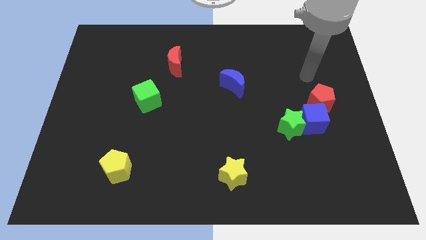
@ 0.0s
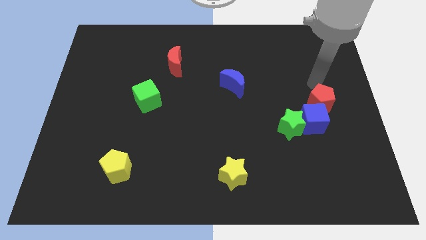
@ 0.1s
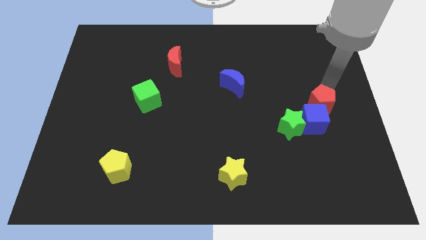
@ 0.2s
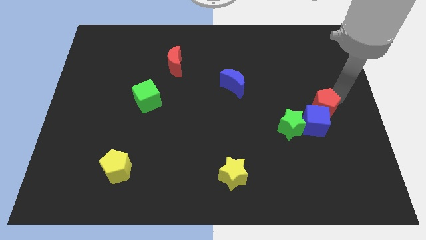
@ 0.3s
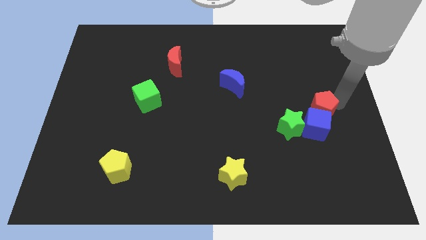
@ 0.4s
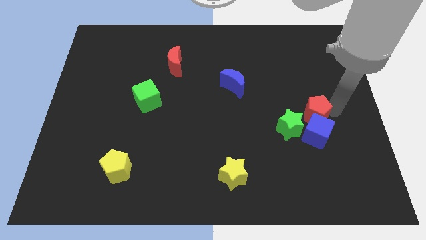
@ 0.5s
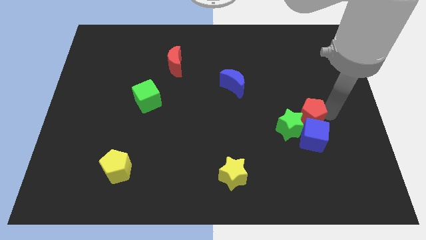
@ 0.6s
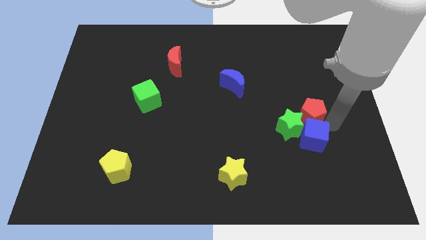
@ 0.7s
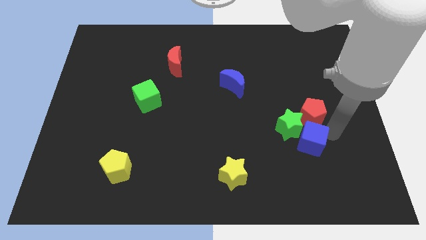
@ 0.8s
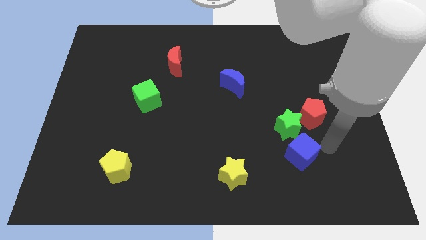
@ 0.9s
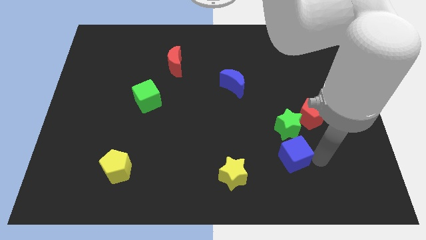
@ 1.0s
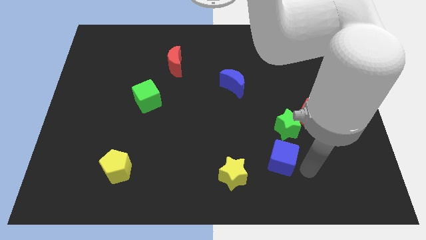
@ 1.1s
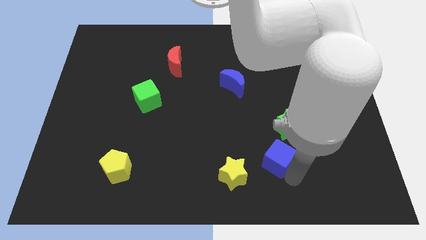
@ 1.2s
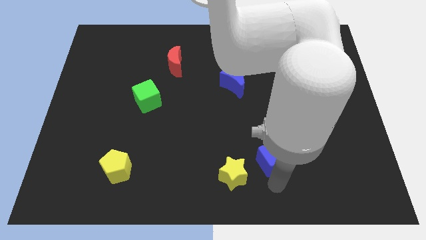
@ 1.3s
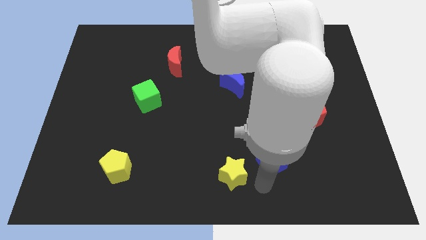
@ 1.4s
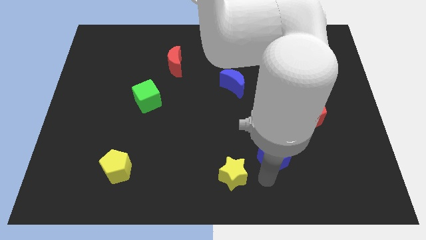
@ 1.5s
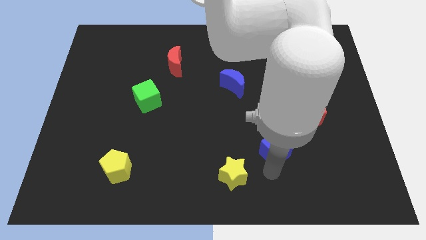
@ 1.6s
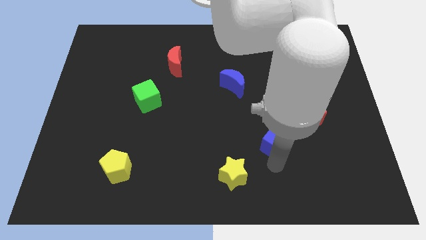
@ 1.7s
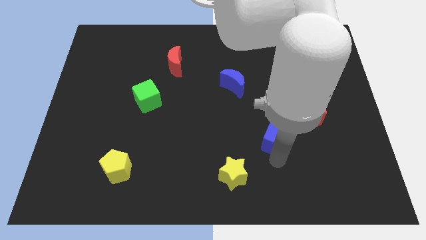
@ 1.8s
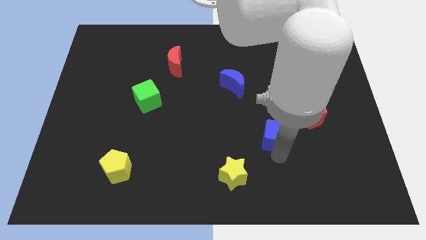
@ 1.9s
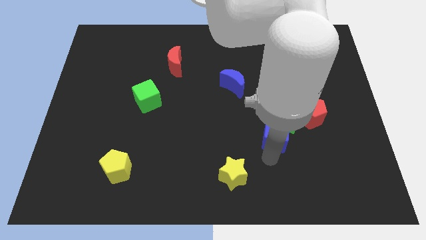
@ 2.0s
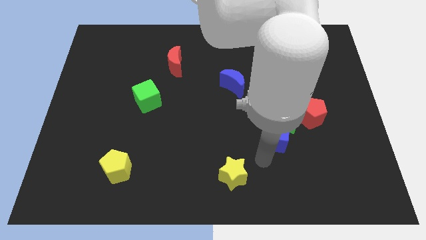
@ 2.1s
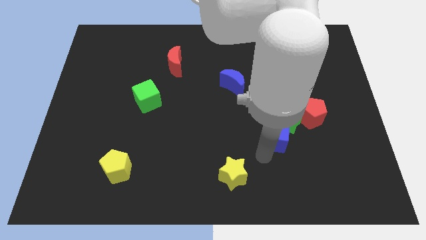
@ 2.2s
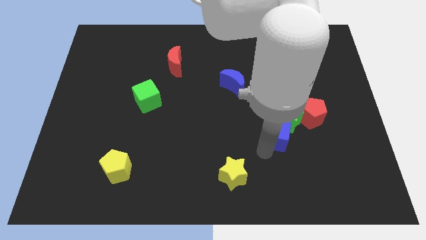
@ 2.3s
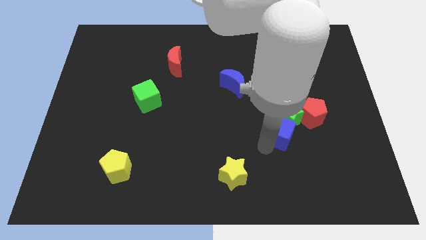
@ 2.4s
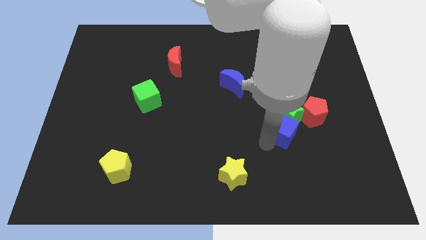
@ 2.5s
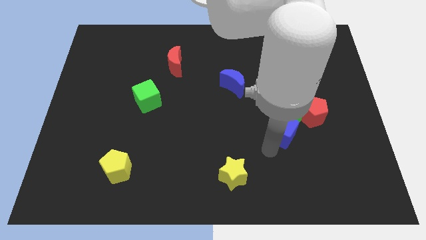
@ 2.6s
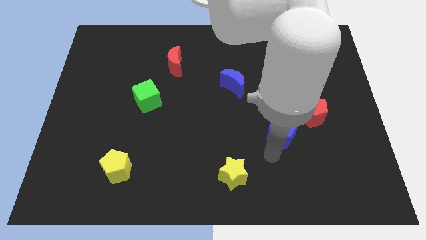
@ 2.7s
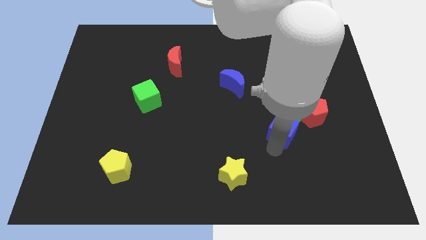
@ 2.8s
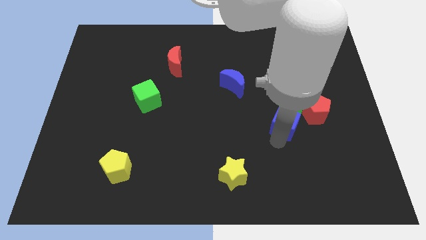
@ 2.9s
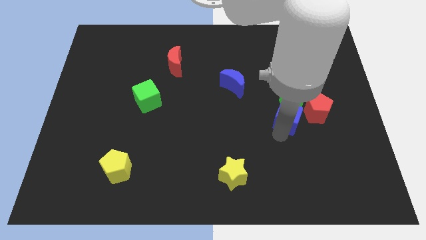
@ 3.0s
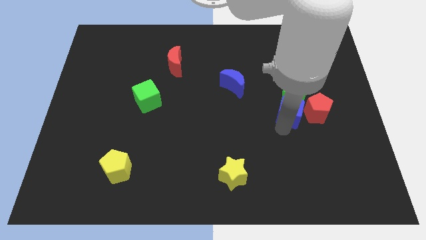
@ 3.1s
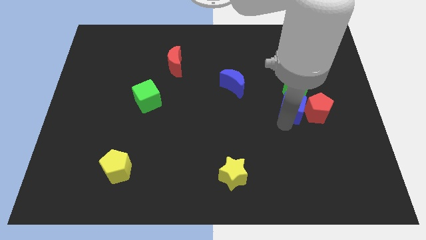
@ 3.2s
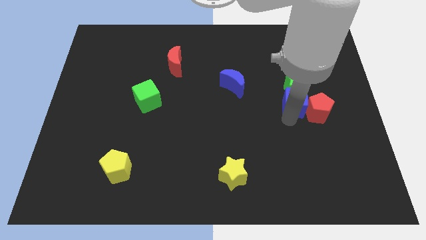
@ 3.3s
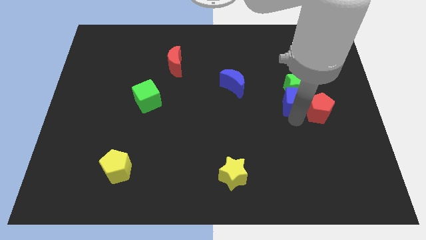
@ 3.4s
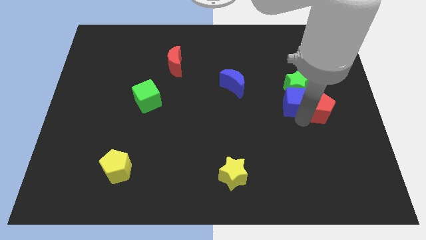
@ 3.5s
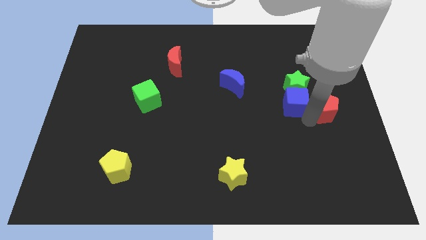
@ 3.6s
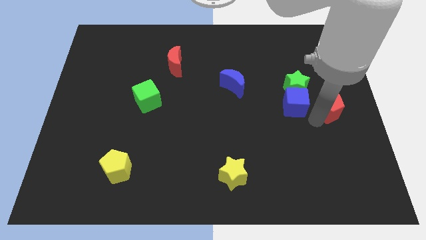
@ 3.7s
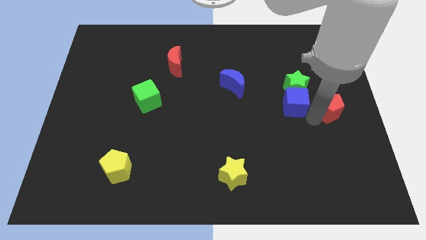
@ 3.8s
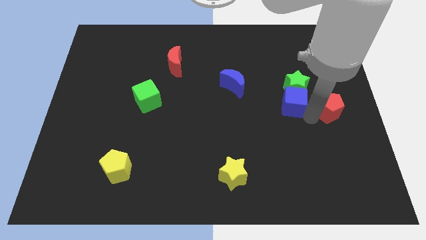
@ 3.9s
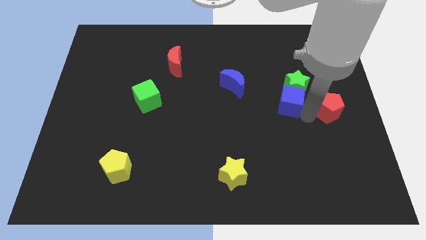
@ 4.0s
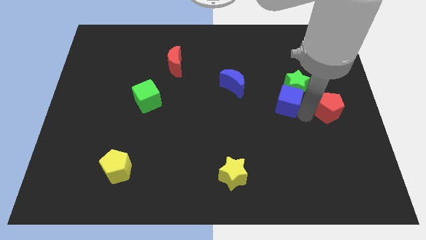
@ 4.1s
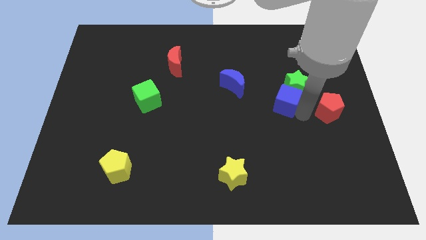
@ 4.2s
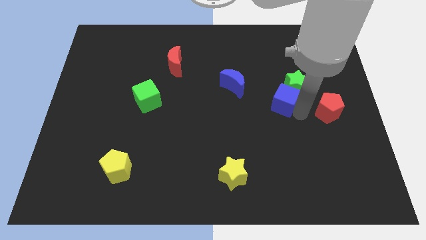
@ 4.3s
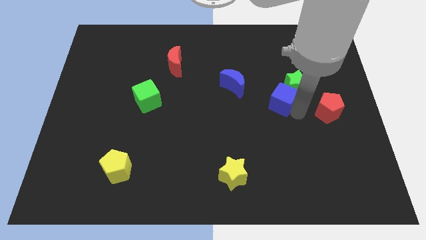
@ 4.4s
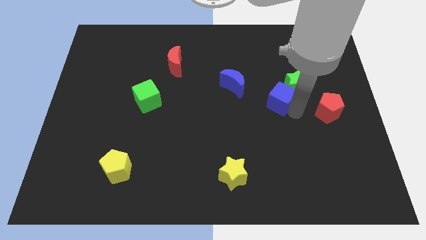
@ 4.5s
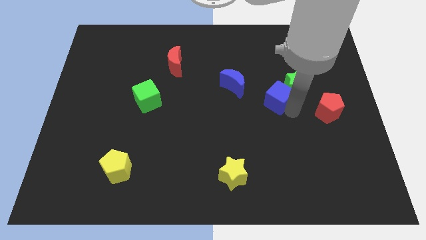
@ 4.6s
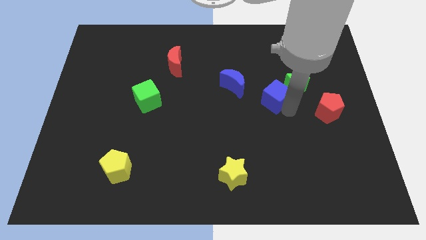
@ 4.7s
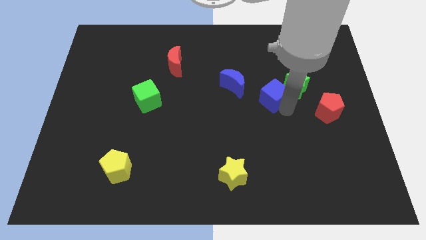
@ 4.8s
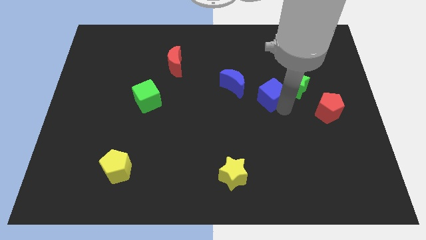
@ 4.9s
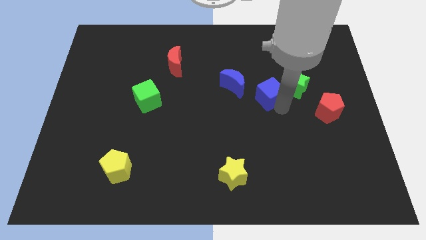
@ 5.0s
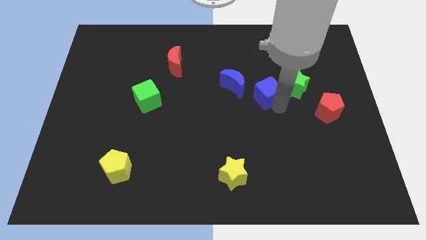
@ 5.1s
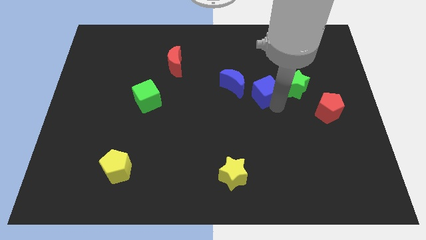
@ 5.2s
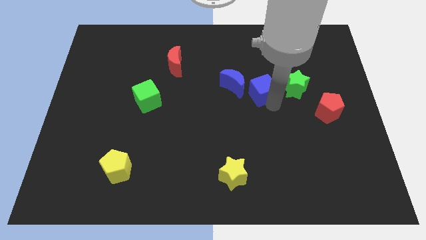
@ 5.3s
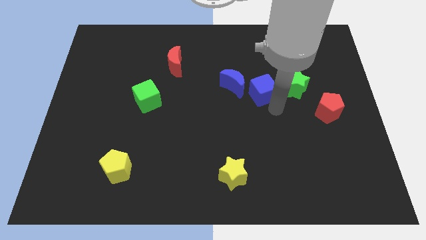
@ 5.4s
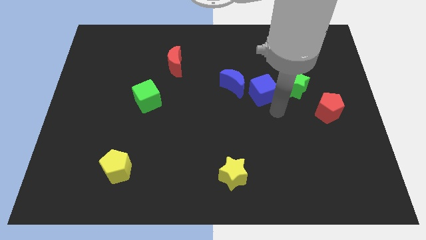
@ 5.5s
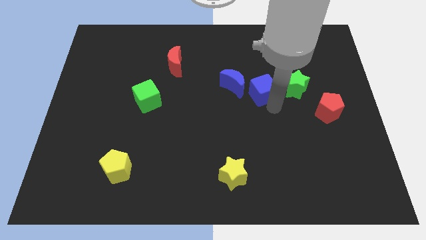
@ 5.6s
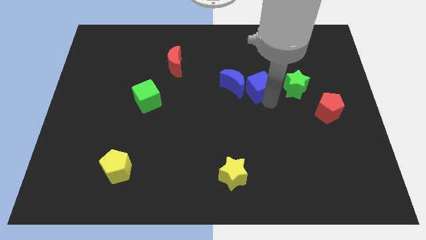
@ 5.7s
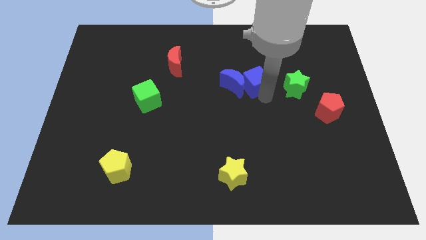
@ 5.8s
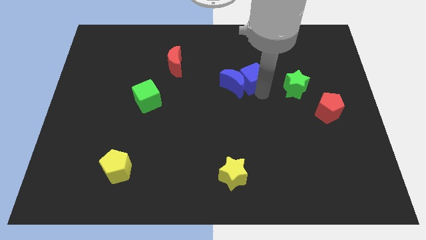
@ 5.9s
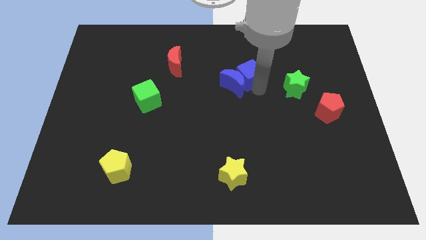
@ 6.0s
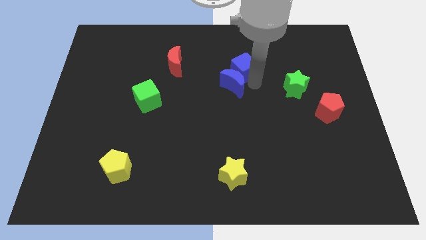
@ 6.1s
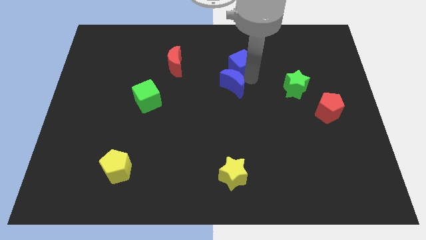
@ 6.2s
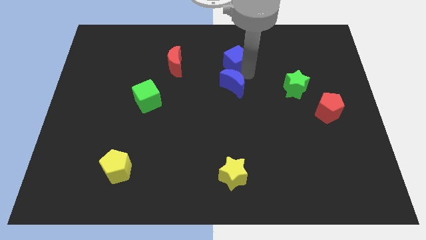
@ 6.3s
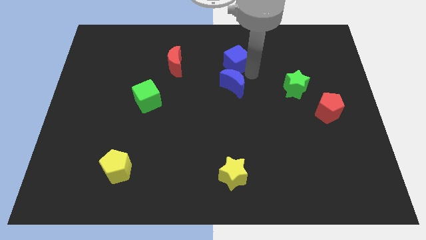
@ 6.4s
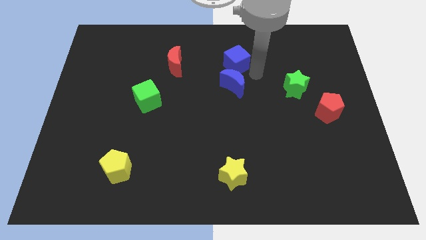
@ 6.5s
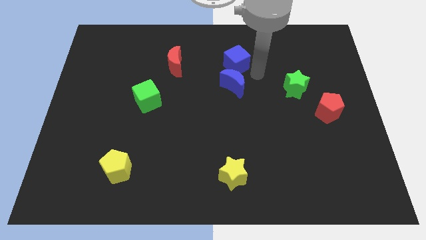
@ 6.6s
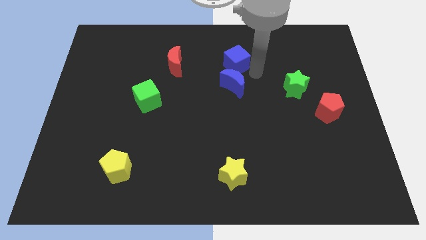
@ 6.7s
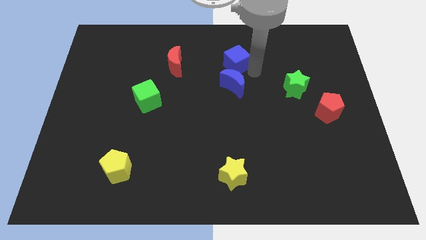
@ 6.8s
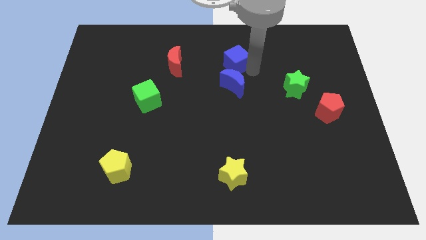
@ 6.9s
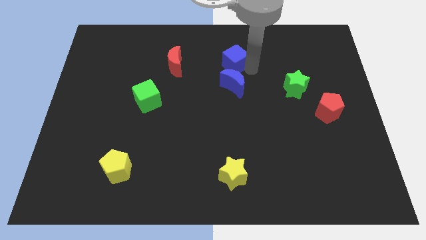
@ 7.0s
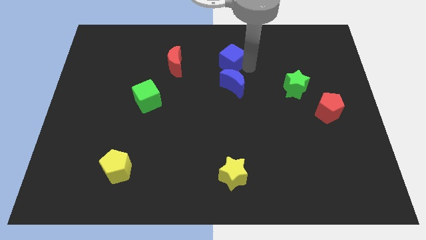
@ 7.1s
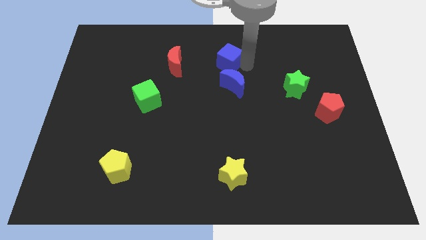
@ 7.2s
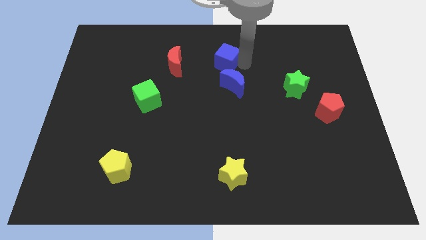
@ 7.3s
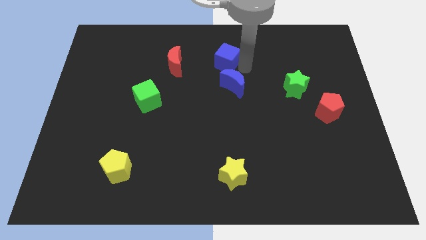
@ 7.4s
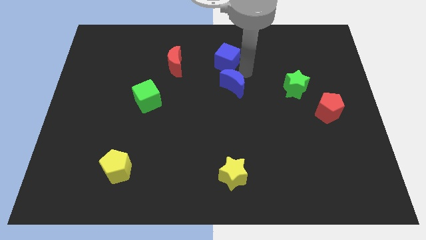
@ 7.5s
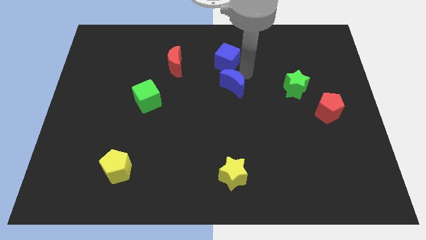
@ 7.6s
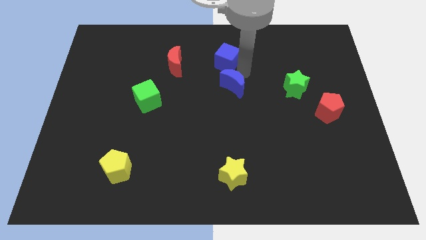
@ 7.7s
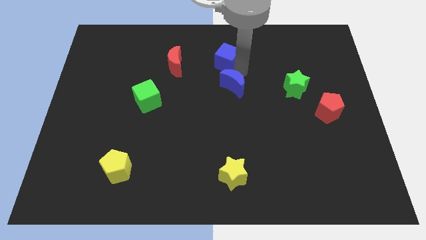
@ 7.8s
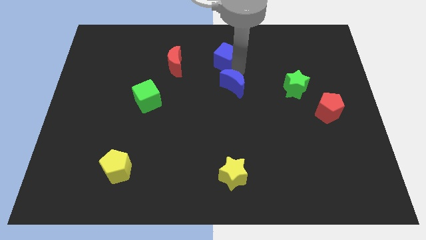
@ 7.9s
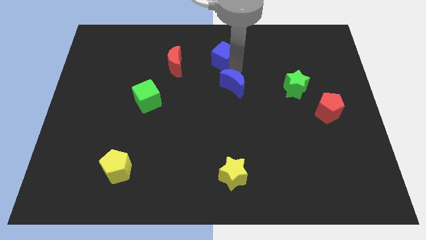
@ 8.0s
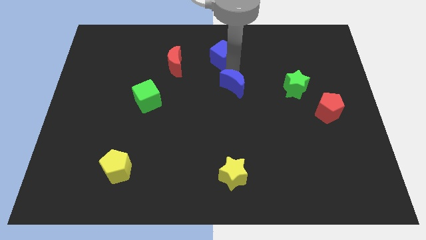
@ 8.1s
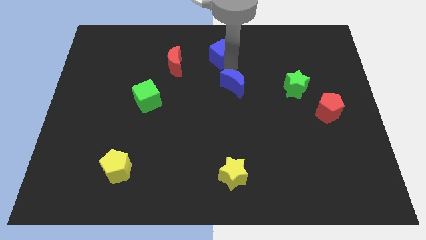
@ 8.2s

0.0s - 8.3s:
push the blue cube to the top
